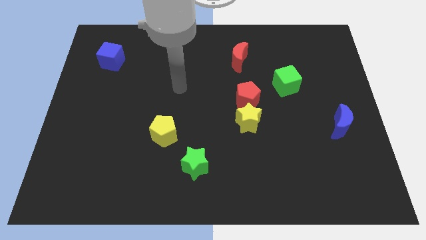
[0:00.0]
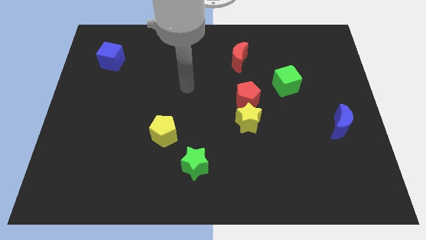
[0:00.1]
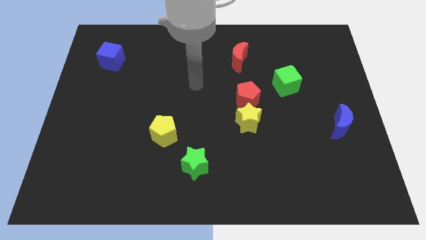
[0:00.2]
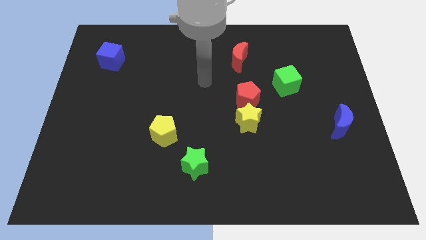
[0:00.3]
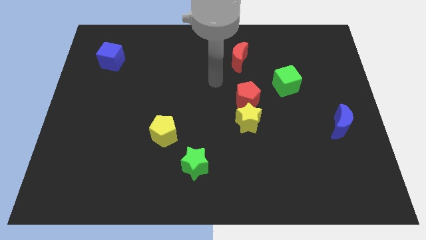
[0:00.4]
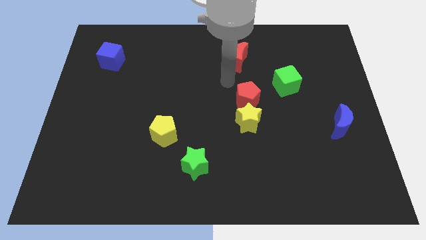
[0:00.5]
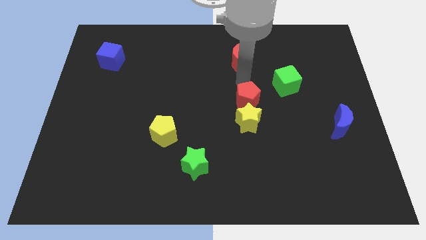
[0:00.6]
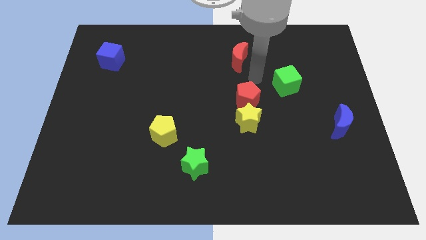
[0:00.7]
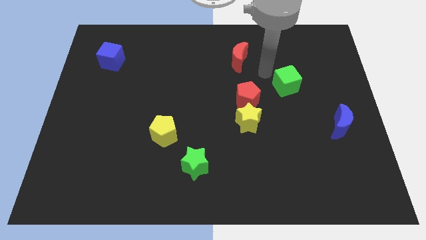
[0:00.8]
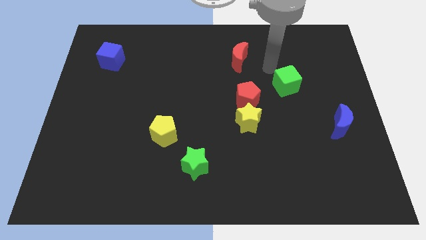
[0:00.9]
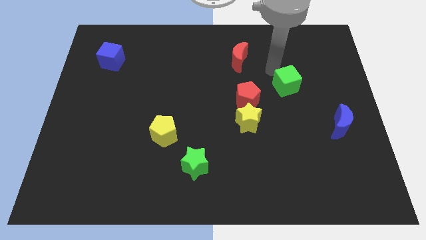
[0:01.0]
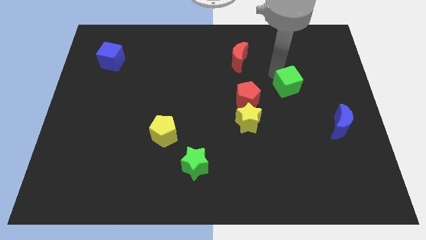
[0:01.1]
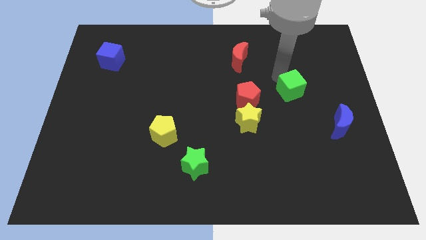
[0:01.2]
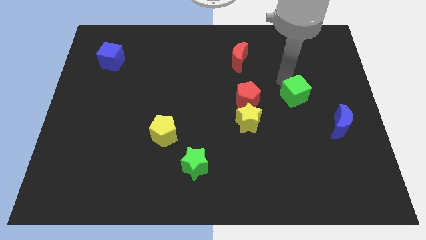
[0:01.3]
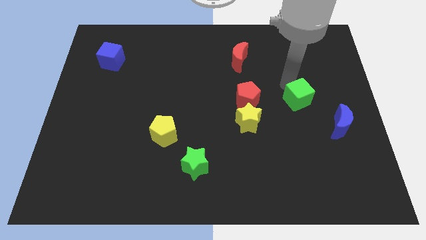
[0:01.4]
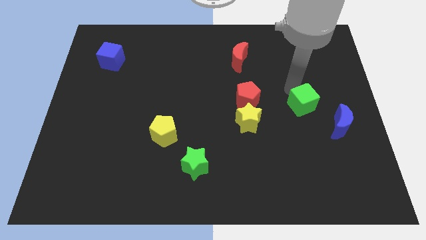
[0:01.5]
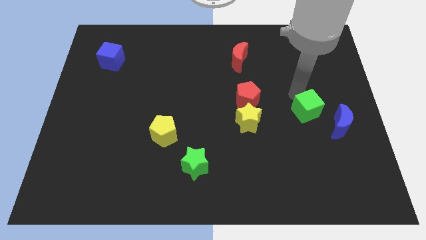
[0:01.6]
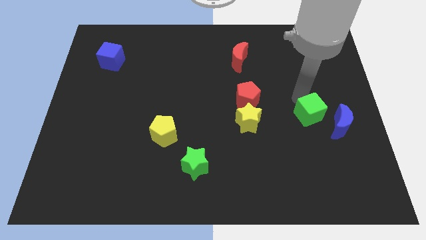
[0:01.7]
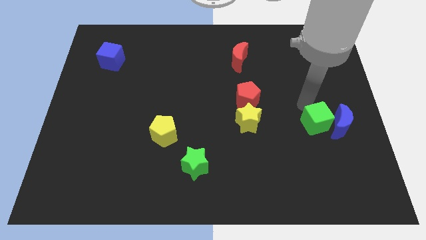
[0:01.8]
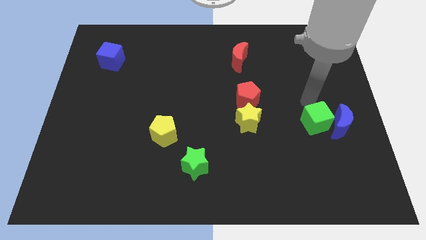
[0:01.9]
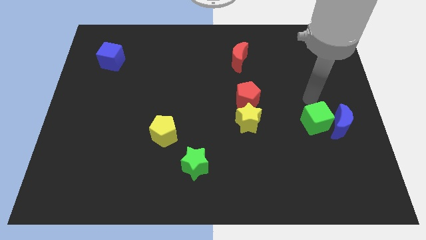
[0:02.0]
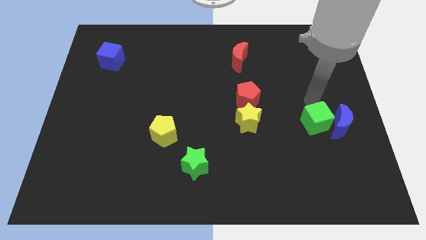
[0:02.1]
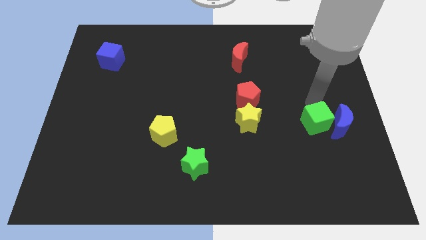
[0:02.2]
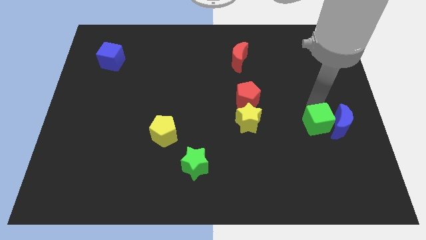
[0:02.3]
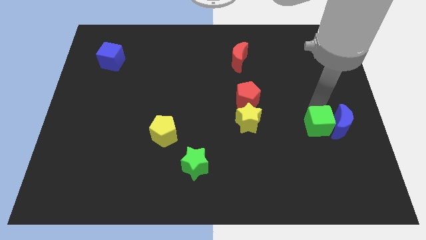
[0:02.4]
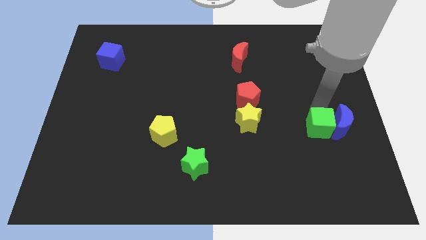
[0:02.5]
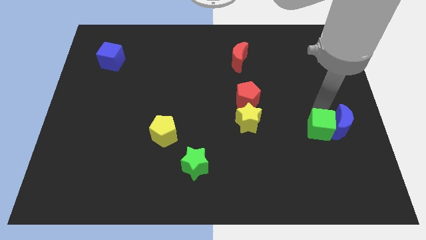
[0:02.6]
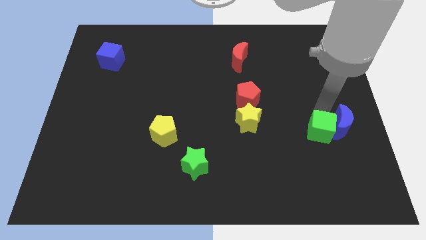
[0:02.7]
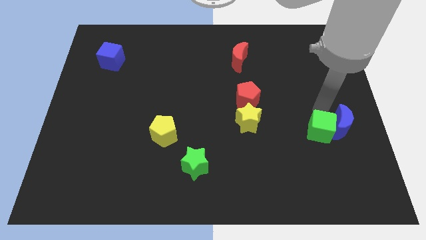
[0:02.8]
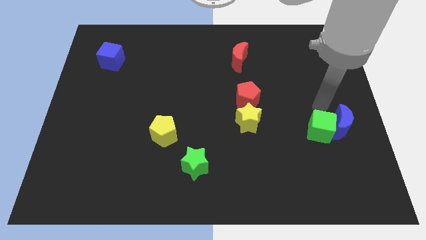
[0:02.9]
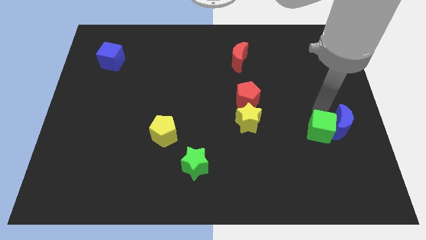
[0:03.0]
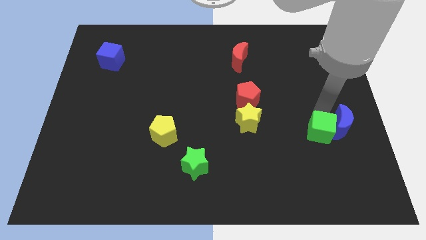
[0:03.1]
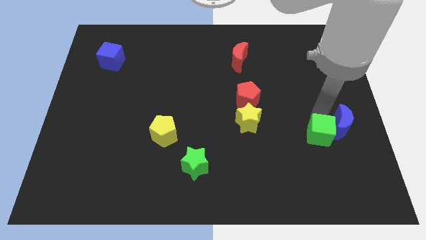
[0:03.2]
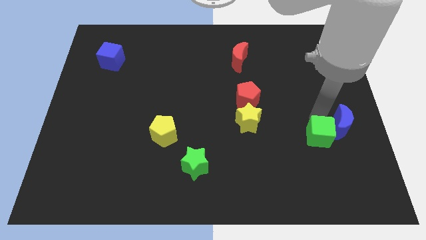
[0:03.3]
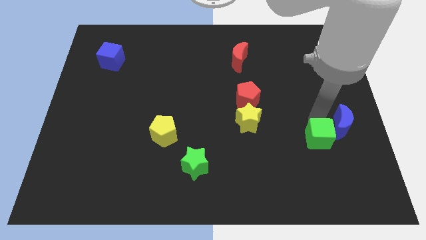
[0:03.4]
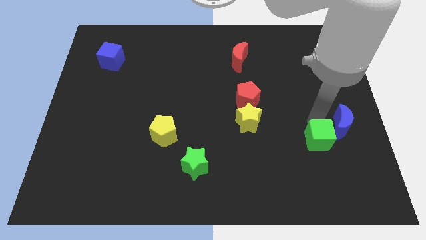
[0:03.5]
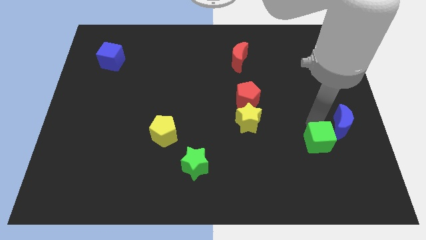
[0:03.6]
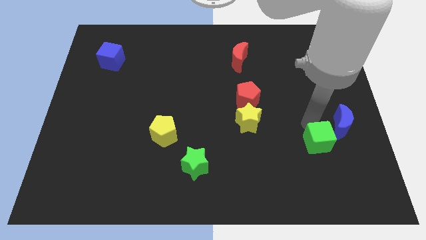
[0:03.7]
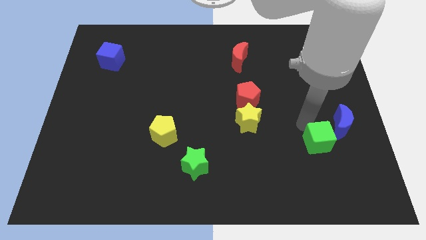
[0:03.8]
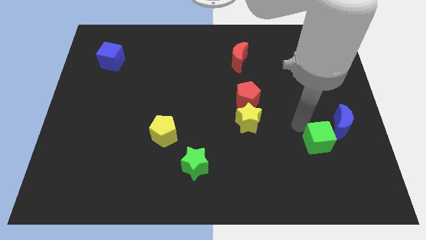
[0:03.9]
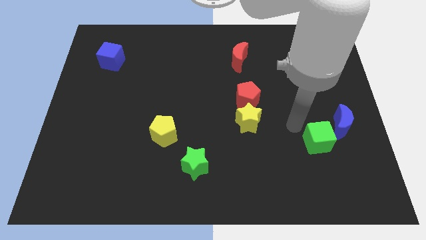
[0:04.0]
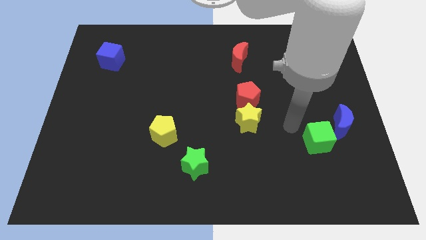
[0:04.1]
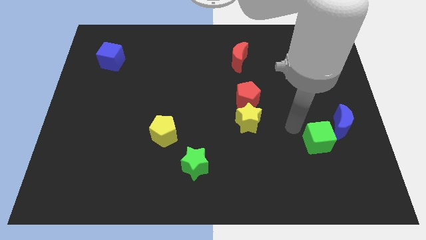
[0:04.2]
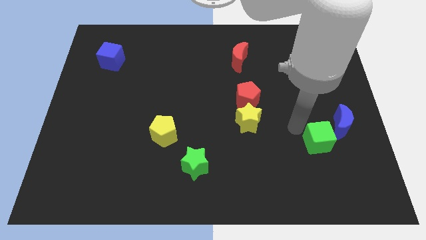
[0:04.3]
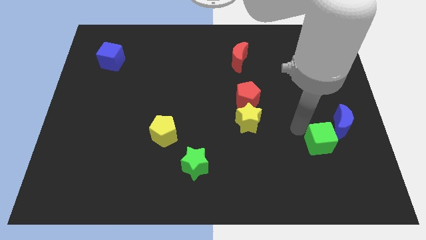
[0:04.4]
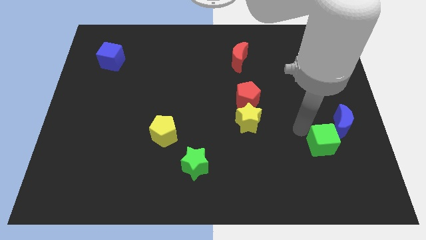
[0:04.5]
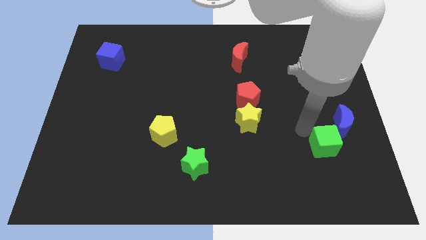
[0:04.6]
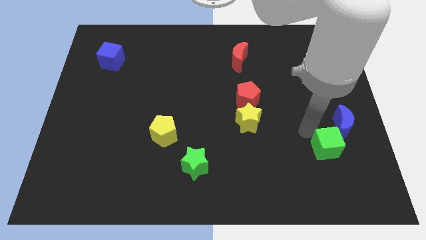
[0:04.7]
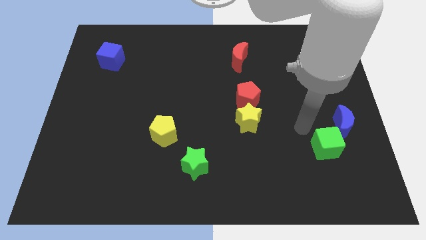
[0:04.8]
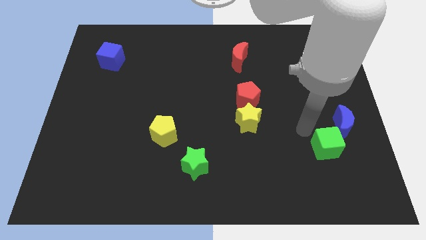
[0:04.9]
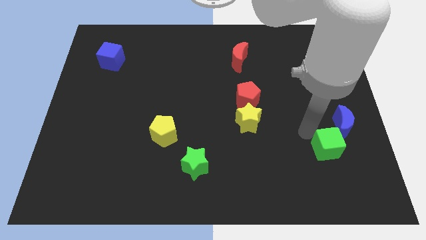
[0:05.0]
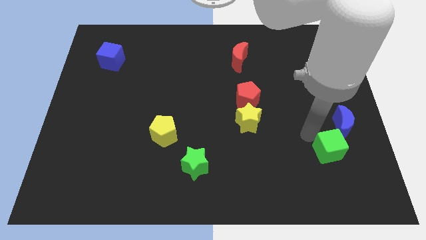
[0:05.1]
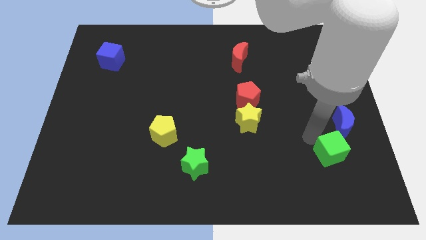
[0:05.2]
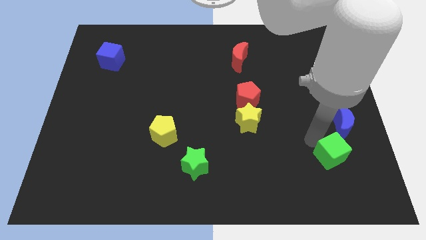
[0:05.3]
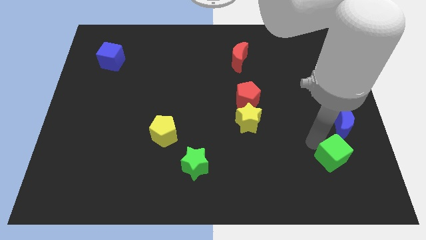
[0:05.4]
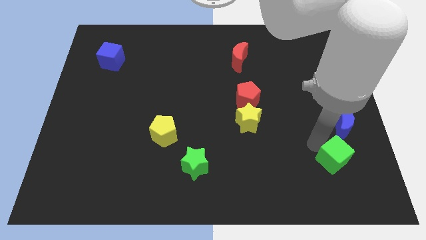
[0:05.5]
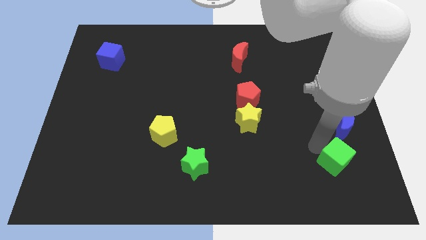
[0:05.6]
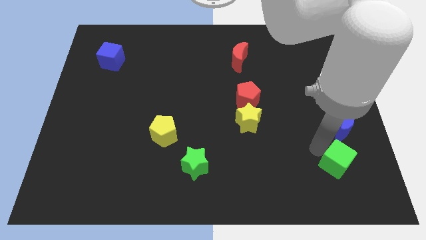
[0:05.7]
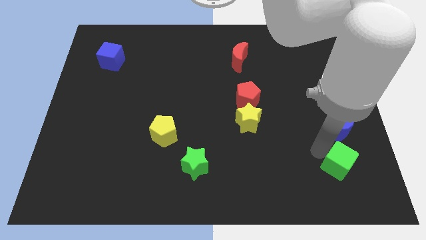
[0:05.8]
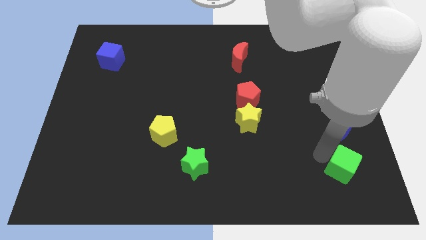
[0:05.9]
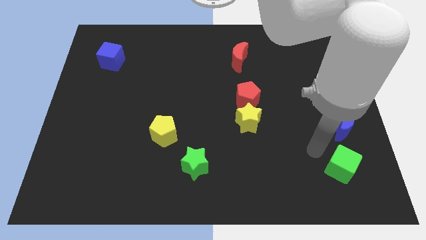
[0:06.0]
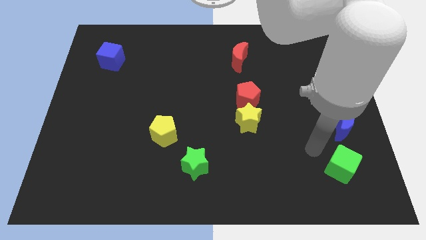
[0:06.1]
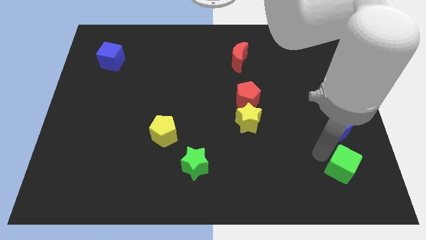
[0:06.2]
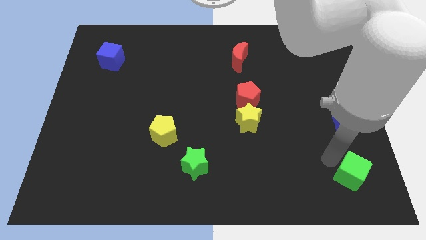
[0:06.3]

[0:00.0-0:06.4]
move the green cube to the lower right corner
